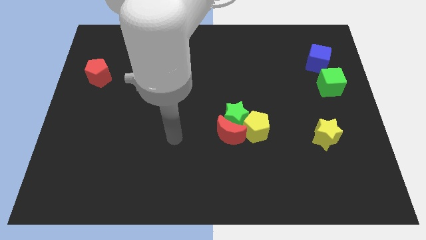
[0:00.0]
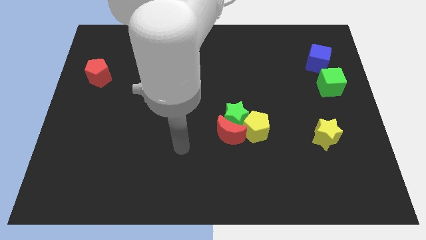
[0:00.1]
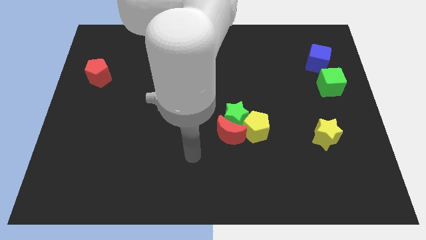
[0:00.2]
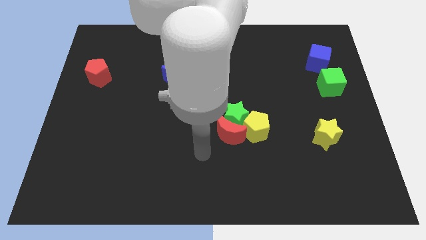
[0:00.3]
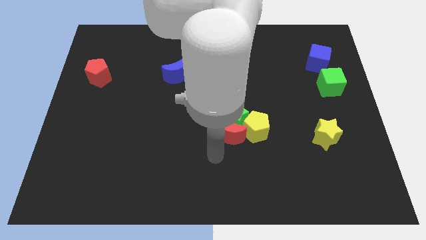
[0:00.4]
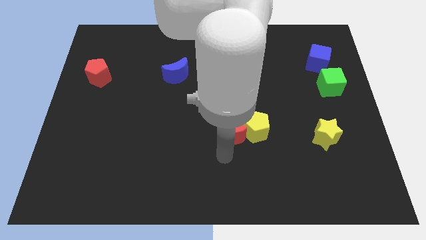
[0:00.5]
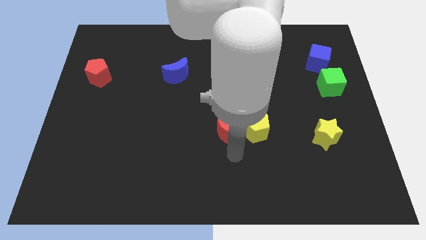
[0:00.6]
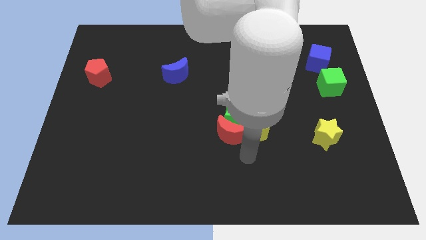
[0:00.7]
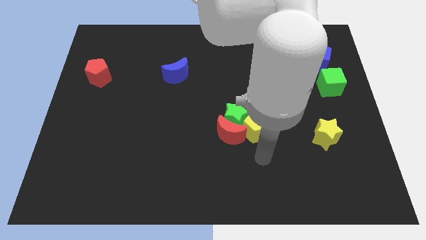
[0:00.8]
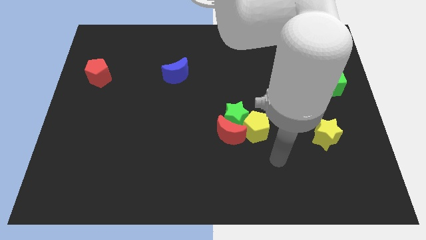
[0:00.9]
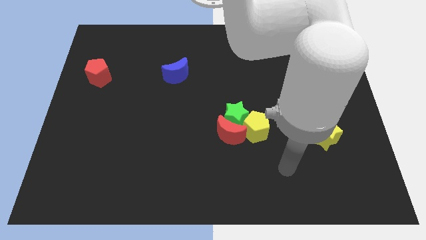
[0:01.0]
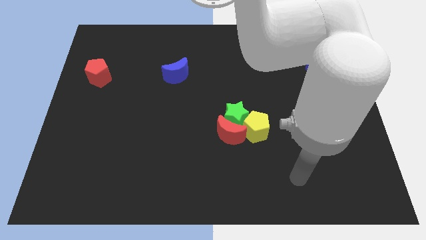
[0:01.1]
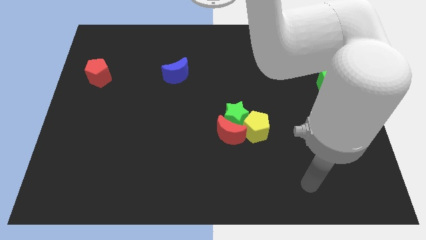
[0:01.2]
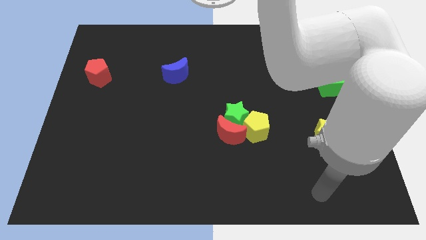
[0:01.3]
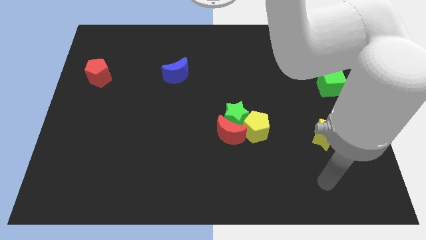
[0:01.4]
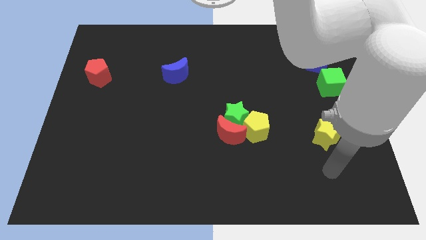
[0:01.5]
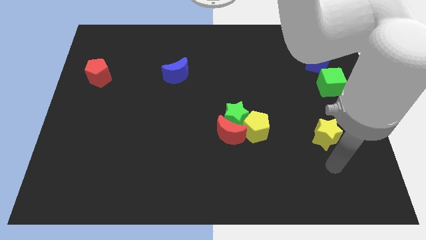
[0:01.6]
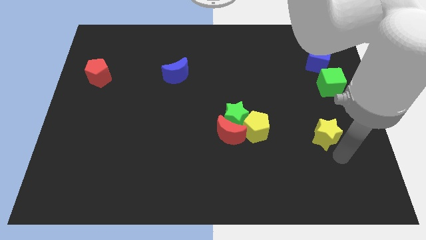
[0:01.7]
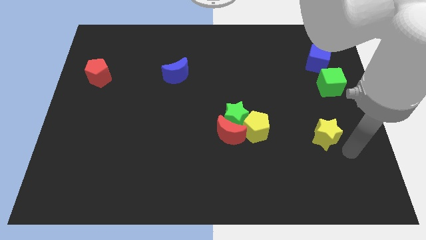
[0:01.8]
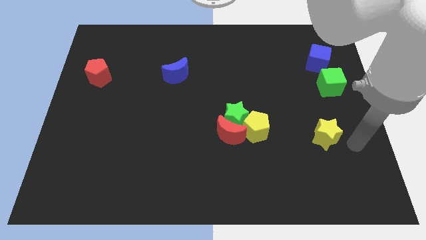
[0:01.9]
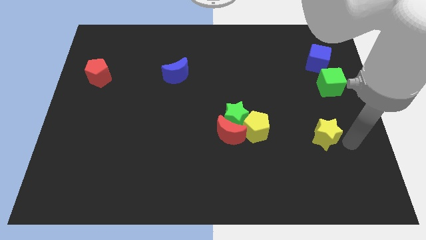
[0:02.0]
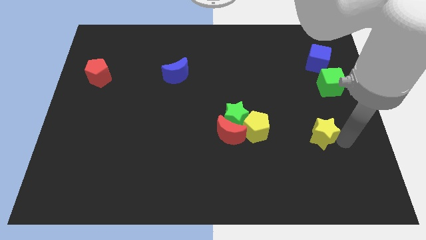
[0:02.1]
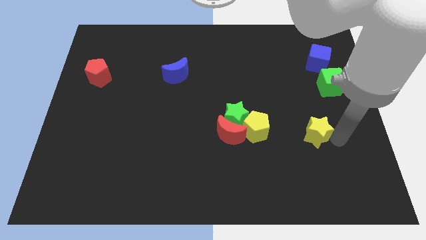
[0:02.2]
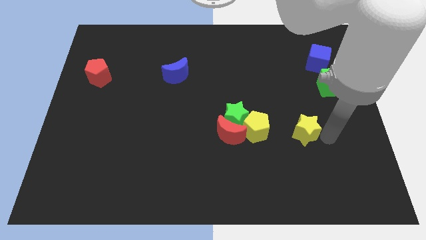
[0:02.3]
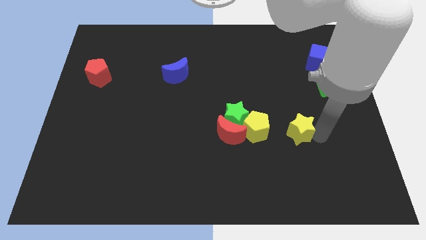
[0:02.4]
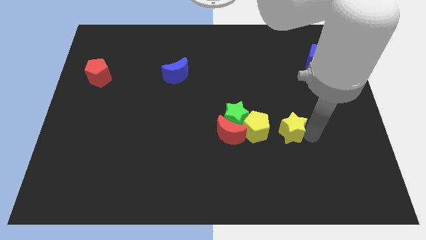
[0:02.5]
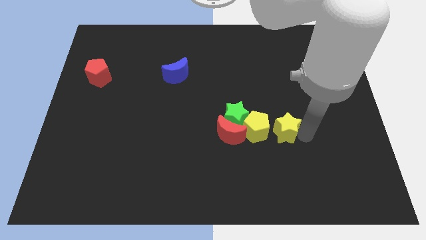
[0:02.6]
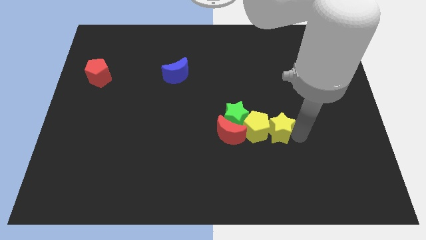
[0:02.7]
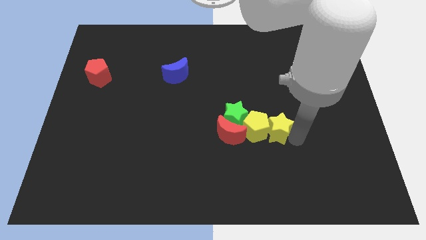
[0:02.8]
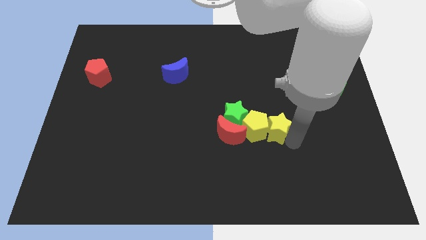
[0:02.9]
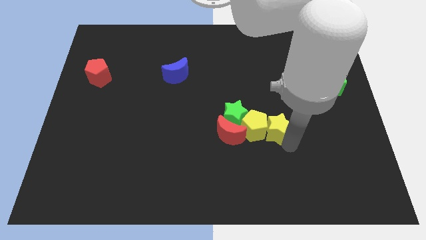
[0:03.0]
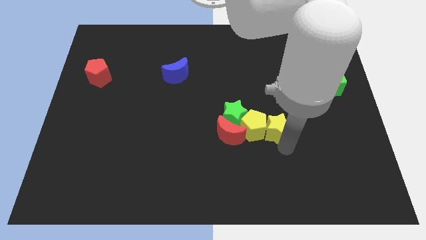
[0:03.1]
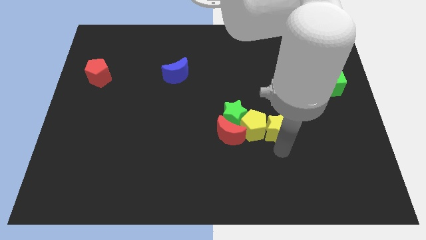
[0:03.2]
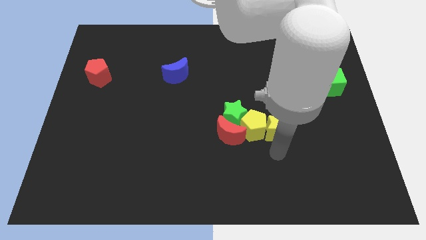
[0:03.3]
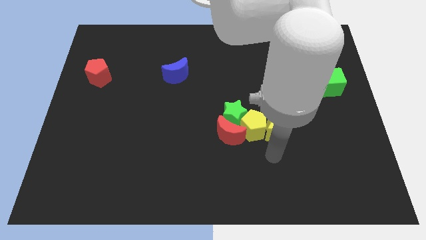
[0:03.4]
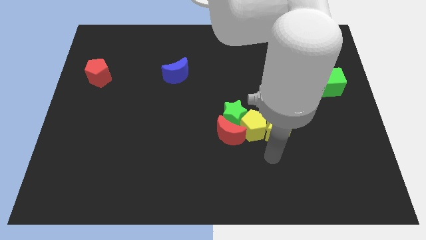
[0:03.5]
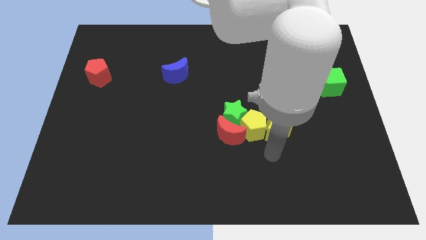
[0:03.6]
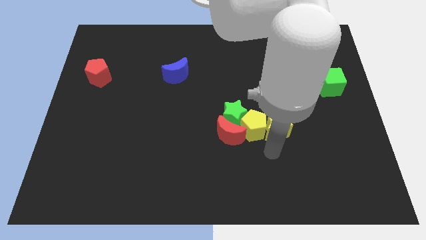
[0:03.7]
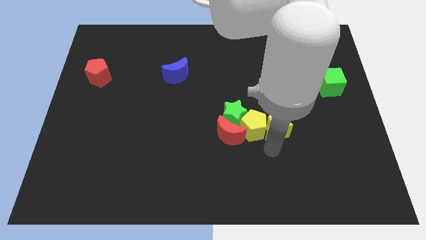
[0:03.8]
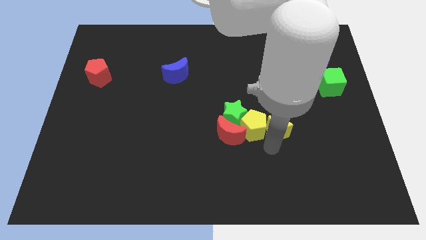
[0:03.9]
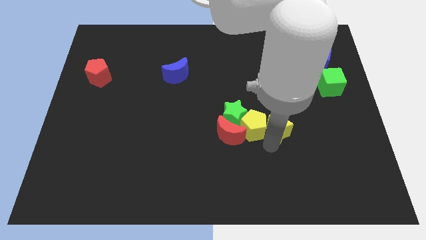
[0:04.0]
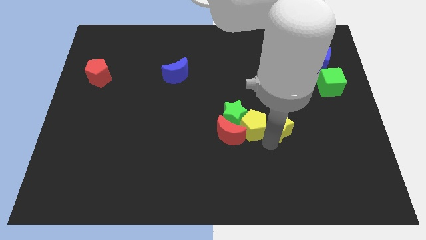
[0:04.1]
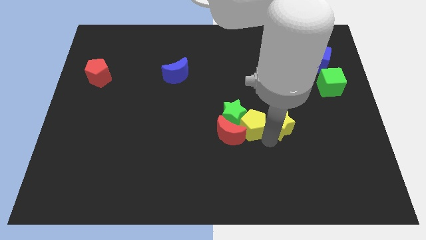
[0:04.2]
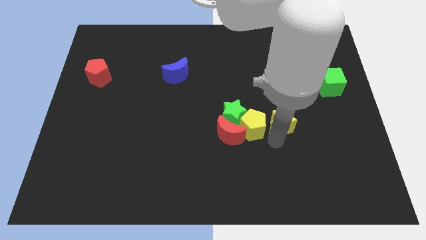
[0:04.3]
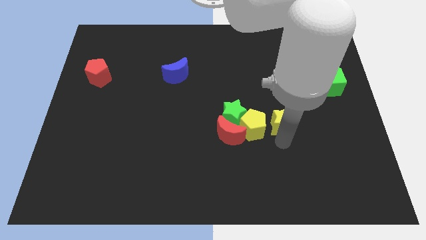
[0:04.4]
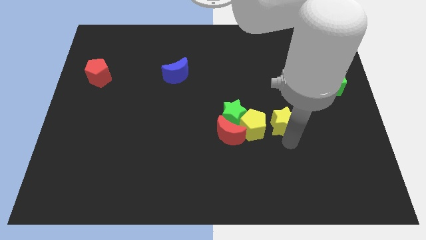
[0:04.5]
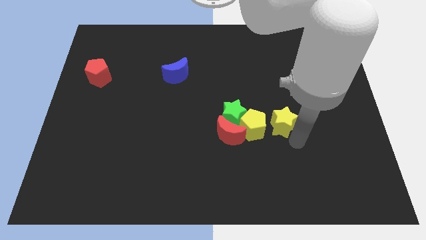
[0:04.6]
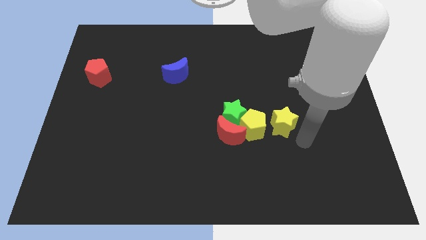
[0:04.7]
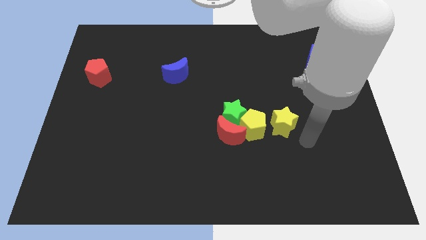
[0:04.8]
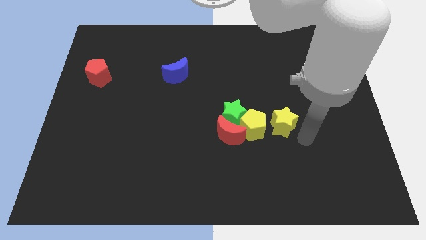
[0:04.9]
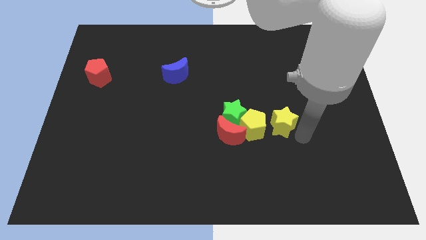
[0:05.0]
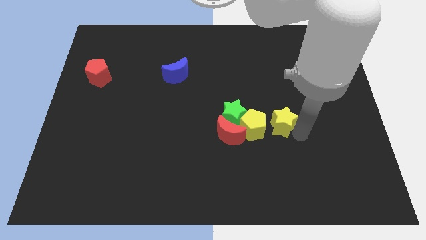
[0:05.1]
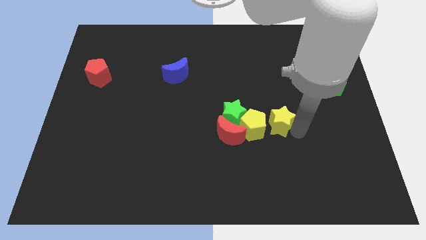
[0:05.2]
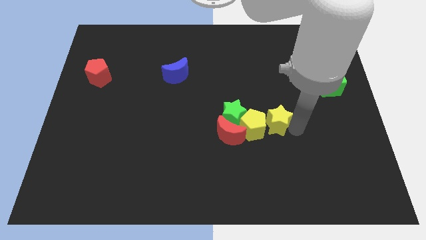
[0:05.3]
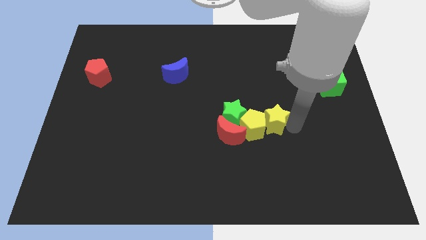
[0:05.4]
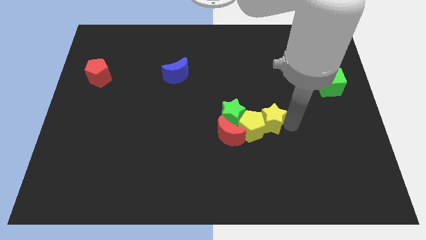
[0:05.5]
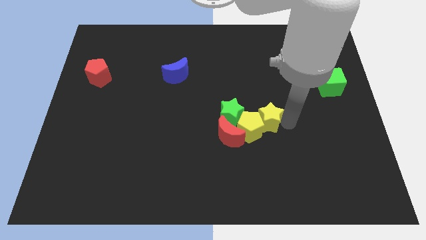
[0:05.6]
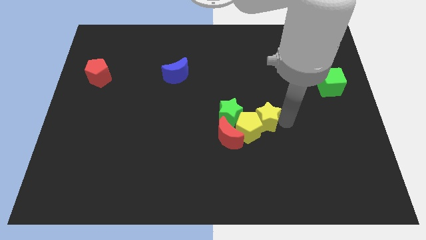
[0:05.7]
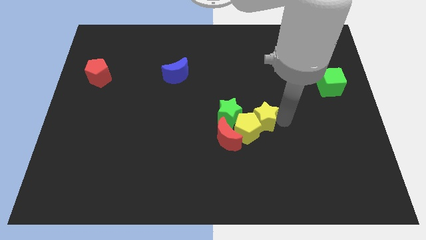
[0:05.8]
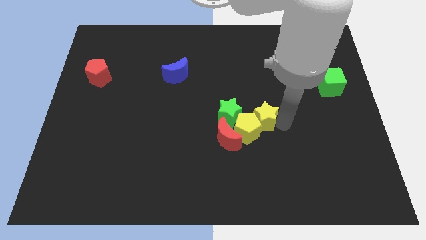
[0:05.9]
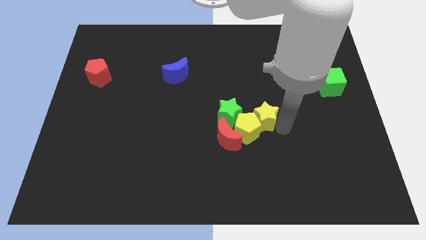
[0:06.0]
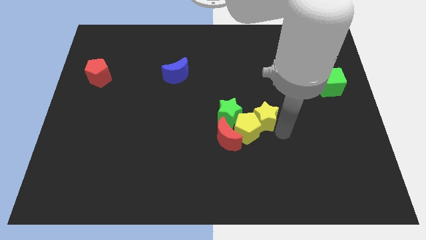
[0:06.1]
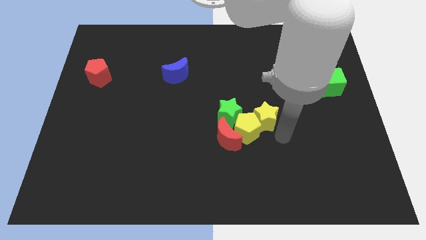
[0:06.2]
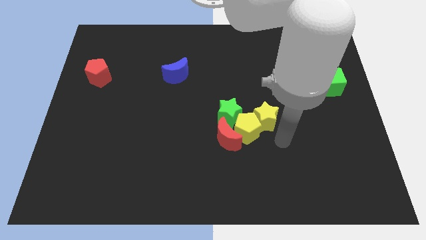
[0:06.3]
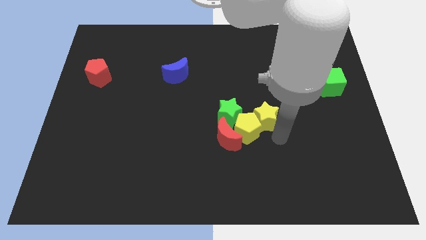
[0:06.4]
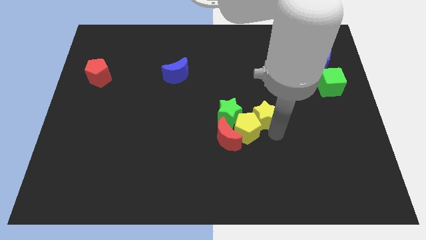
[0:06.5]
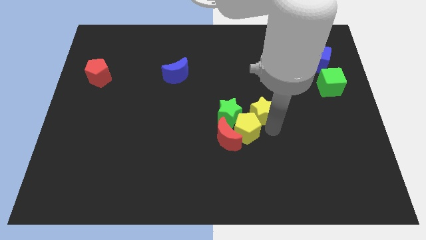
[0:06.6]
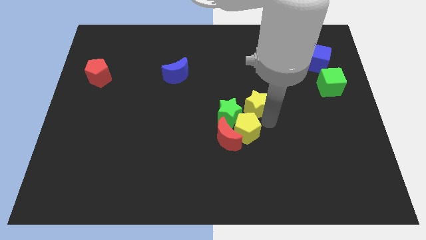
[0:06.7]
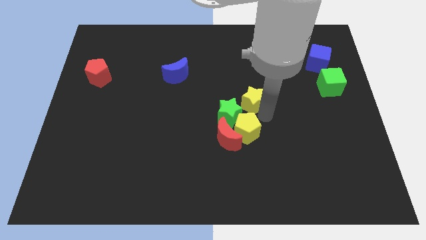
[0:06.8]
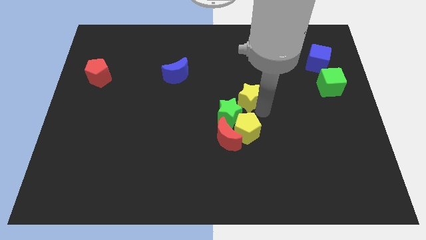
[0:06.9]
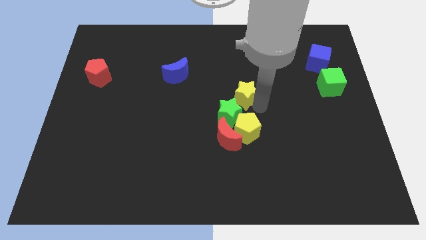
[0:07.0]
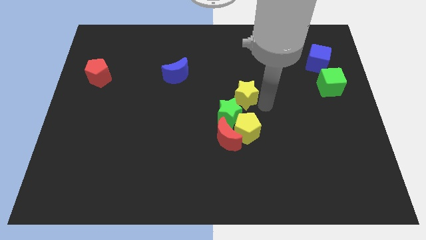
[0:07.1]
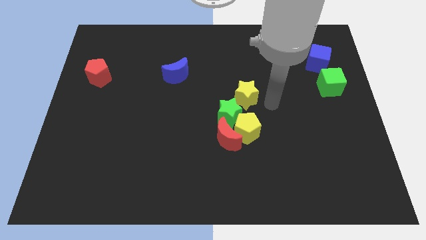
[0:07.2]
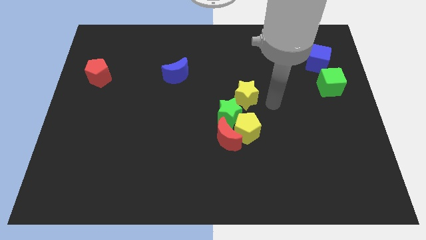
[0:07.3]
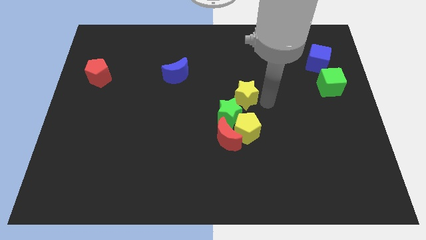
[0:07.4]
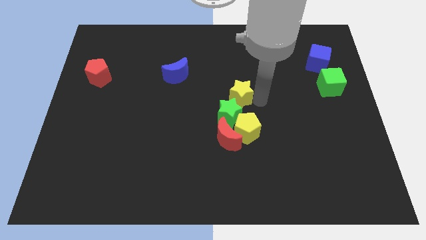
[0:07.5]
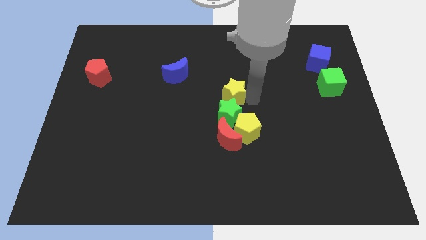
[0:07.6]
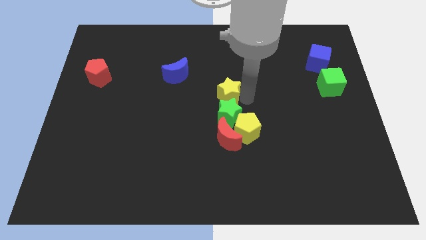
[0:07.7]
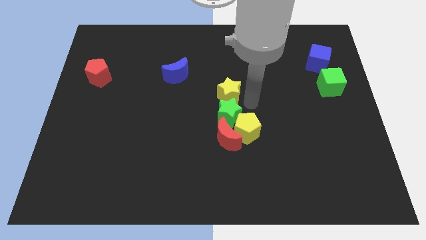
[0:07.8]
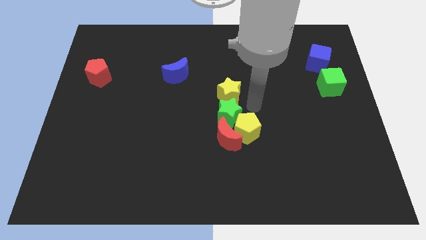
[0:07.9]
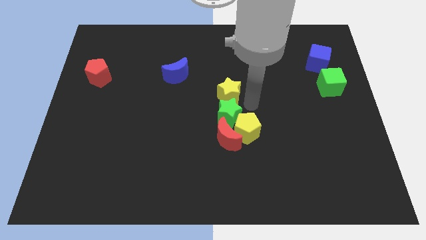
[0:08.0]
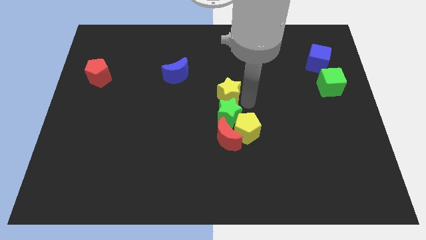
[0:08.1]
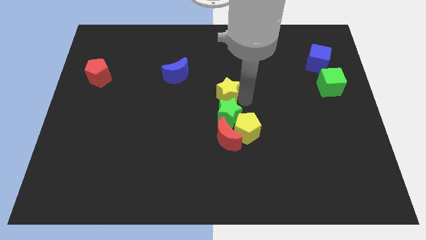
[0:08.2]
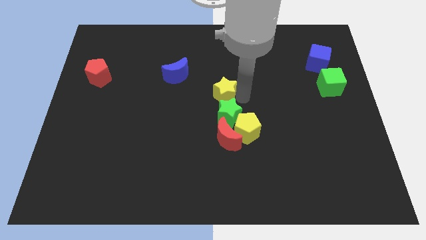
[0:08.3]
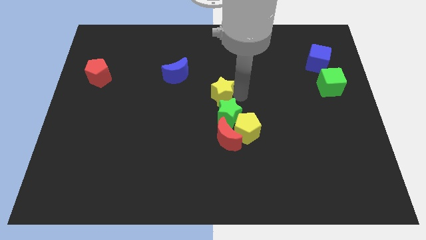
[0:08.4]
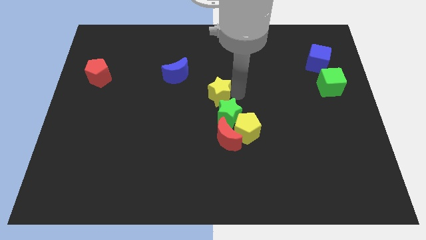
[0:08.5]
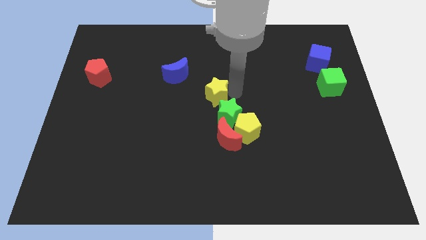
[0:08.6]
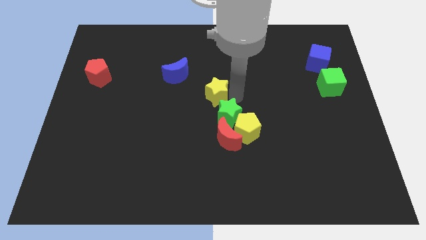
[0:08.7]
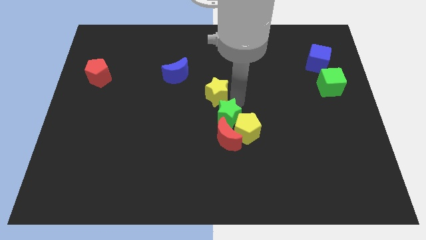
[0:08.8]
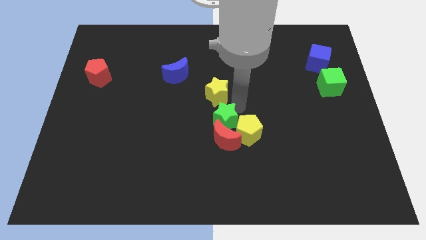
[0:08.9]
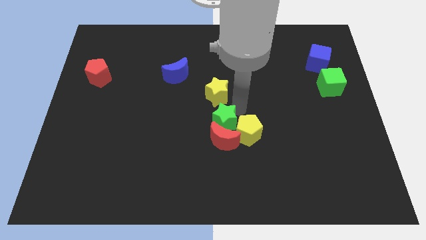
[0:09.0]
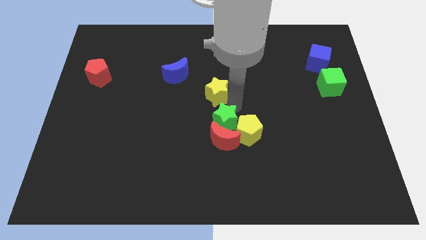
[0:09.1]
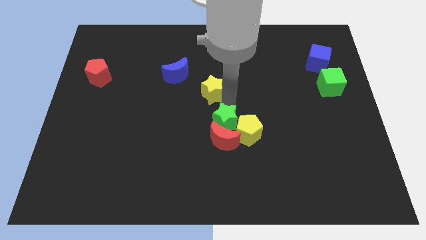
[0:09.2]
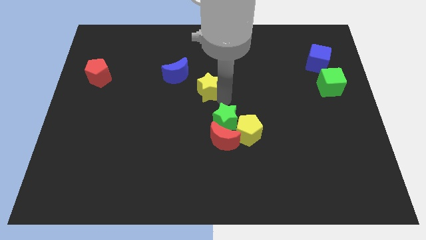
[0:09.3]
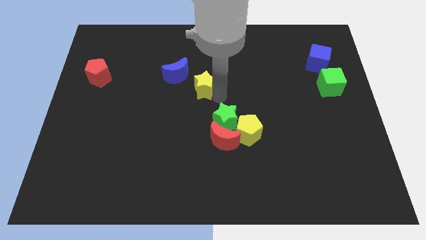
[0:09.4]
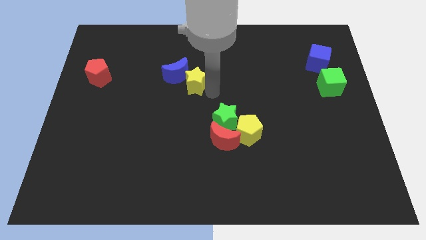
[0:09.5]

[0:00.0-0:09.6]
put the yellow star next to the blue moon
